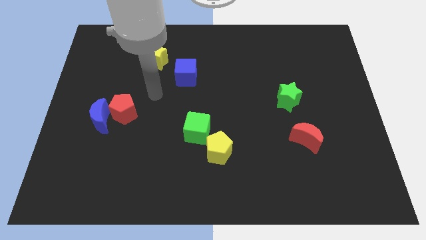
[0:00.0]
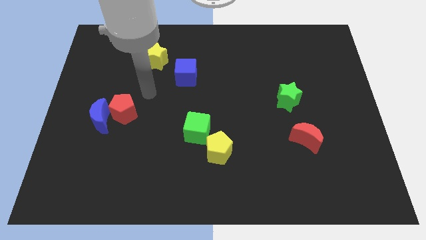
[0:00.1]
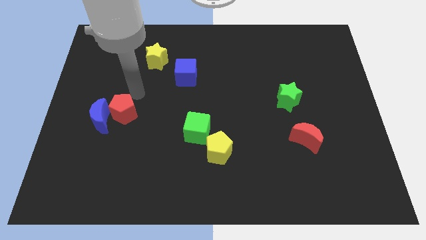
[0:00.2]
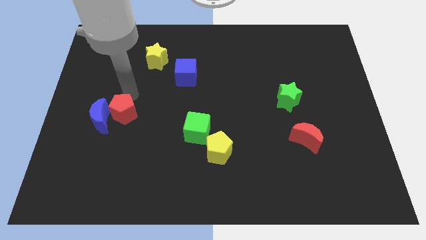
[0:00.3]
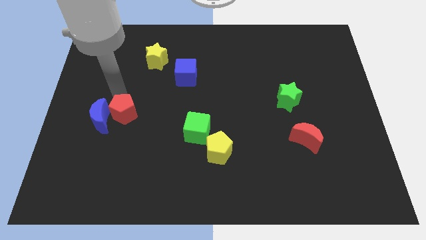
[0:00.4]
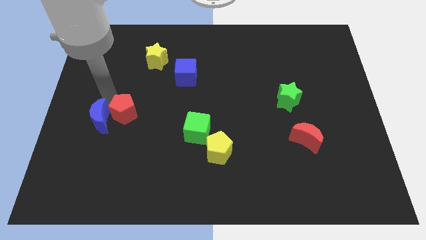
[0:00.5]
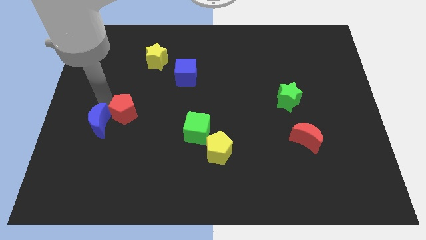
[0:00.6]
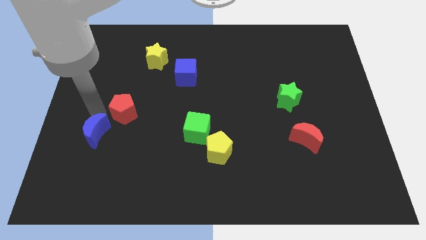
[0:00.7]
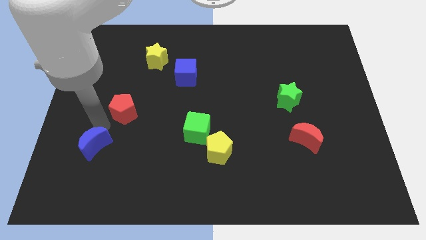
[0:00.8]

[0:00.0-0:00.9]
separate the red pentagon from the blue moon

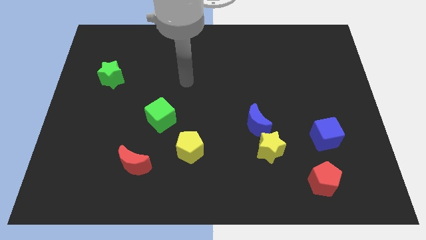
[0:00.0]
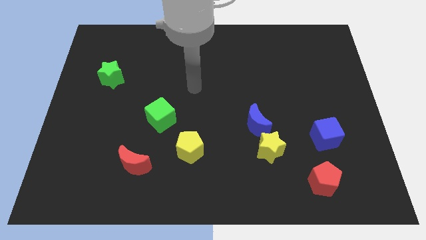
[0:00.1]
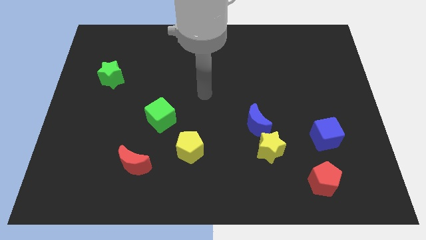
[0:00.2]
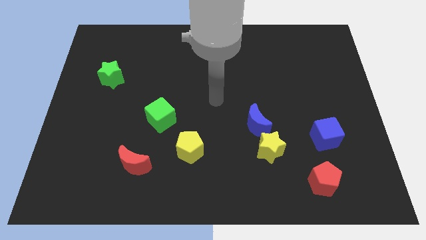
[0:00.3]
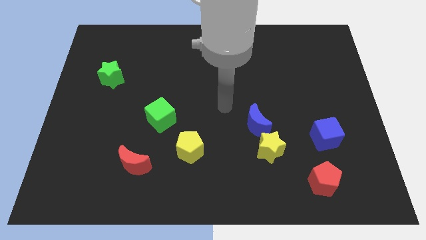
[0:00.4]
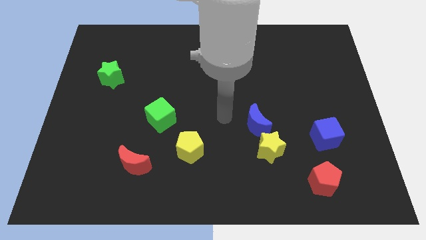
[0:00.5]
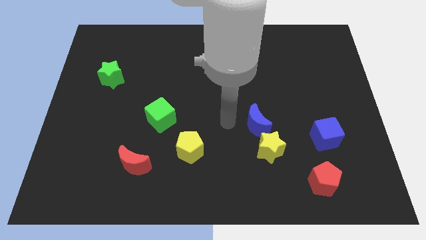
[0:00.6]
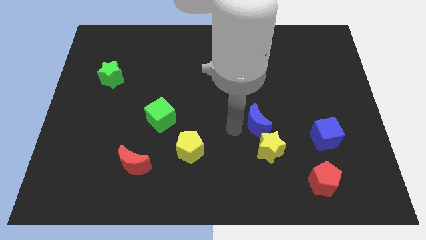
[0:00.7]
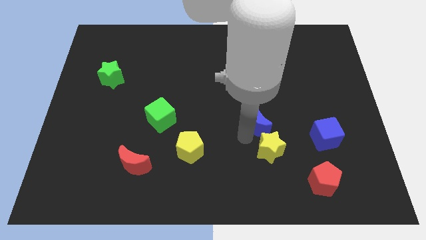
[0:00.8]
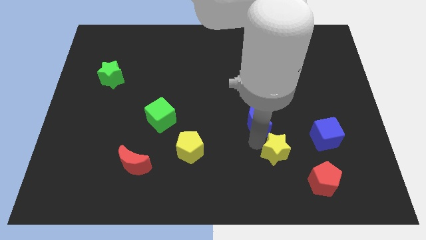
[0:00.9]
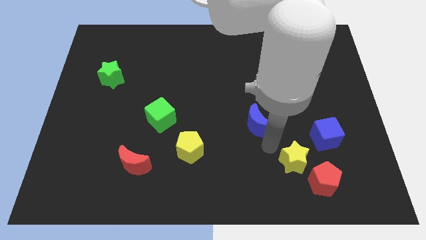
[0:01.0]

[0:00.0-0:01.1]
separate the blue moon from the yellow star

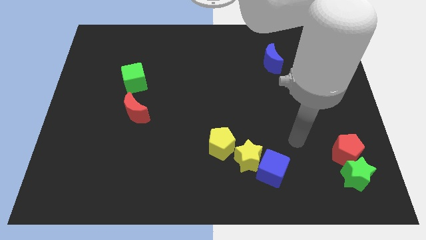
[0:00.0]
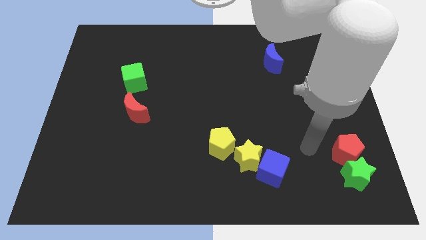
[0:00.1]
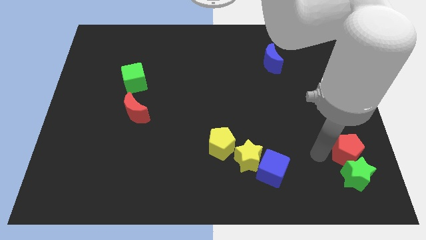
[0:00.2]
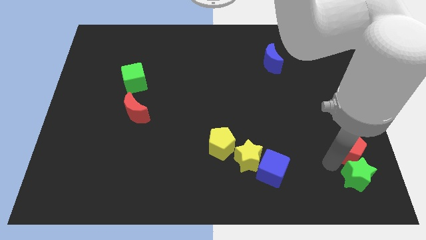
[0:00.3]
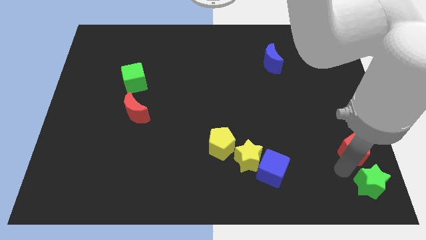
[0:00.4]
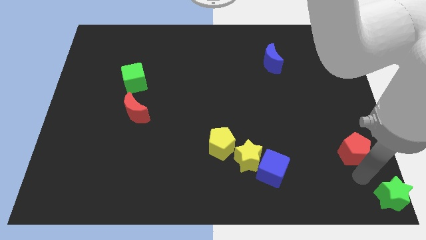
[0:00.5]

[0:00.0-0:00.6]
separate the red pentagon from the green star

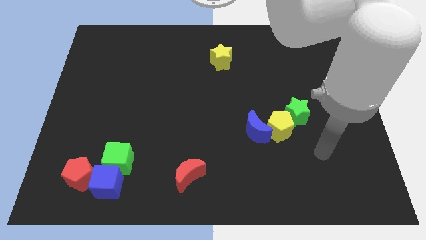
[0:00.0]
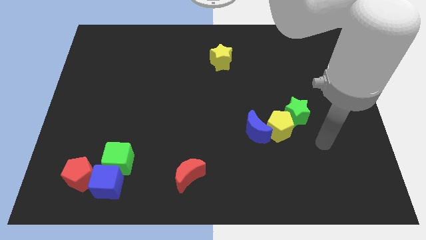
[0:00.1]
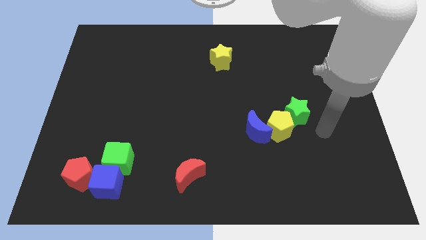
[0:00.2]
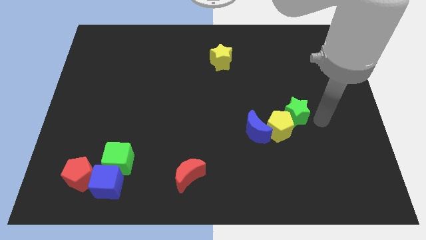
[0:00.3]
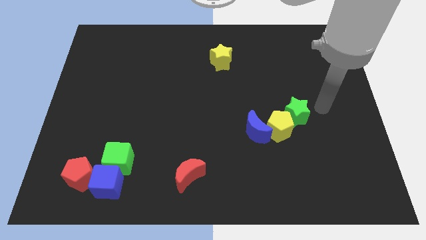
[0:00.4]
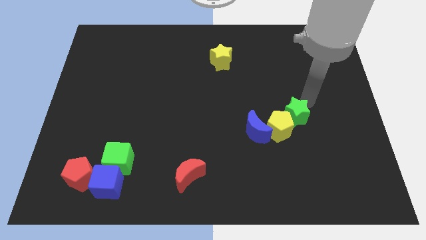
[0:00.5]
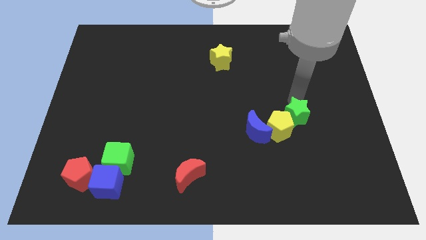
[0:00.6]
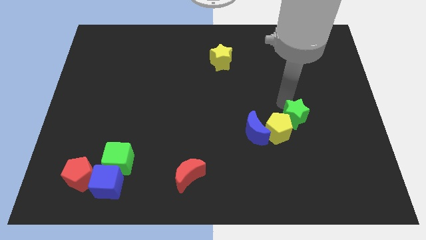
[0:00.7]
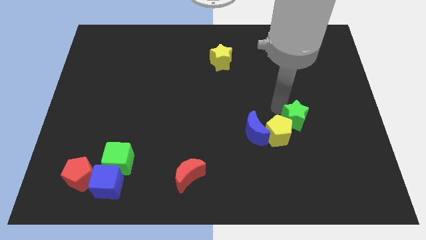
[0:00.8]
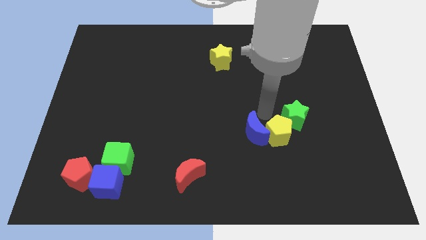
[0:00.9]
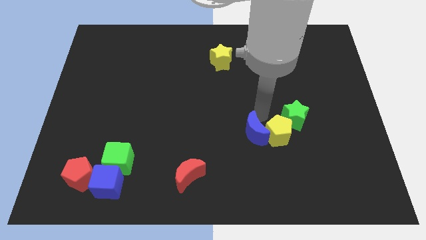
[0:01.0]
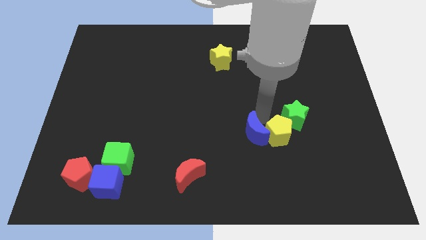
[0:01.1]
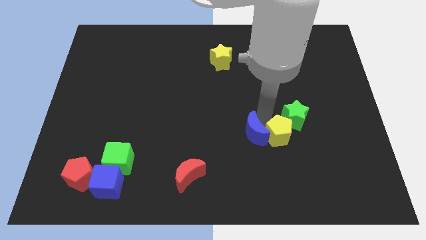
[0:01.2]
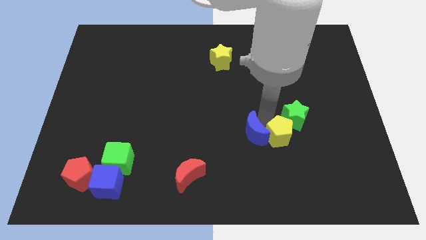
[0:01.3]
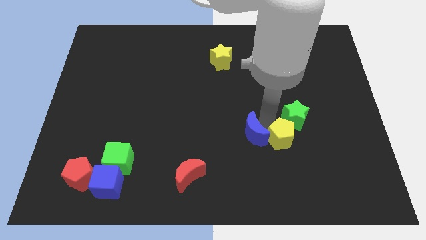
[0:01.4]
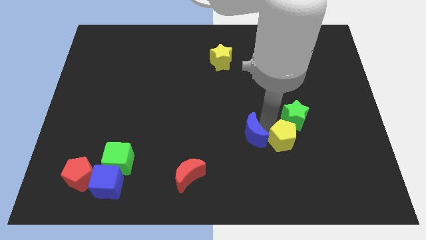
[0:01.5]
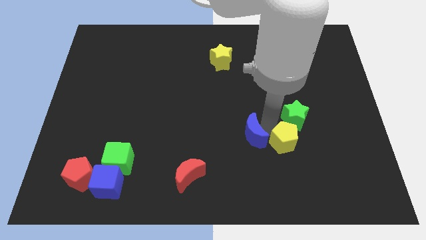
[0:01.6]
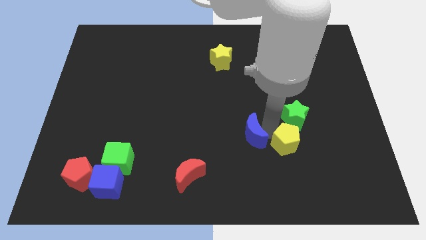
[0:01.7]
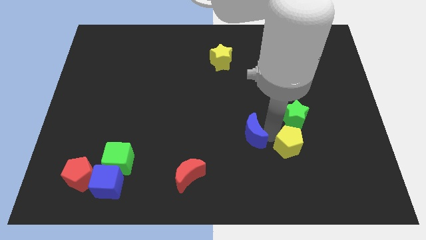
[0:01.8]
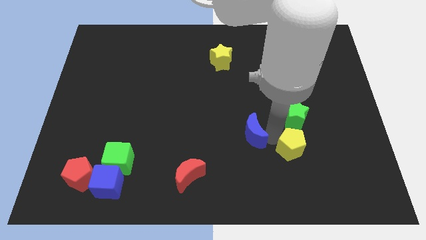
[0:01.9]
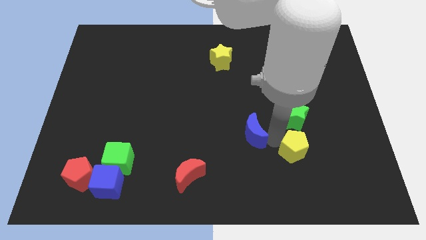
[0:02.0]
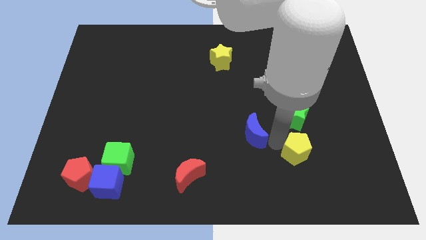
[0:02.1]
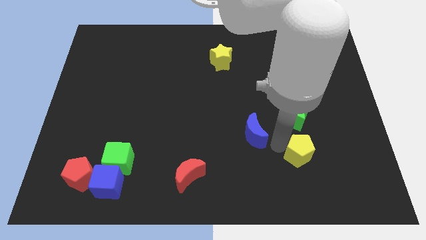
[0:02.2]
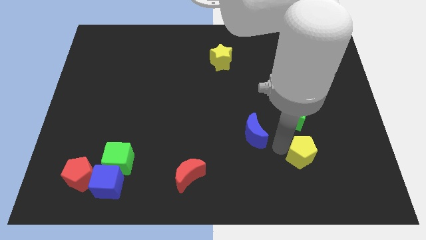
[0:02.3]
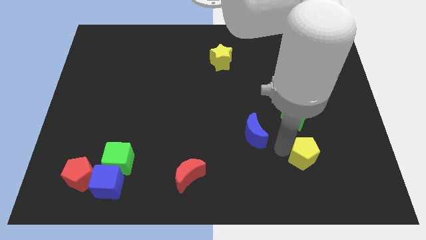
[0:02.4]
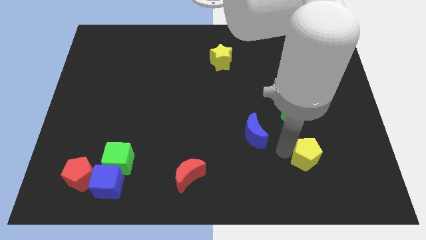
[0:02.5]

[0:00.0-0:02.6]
move the yellow pentagon away from the blue moon and green star

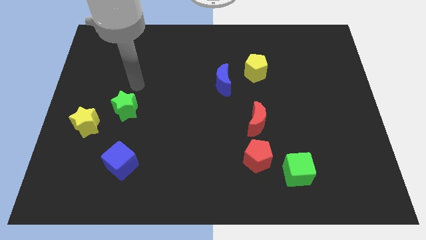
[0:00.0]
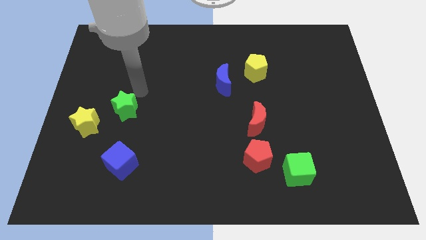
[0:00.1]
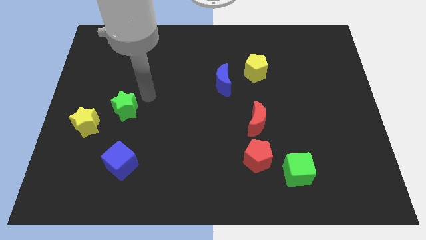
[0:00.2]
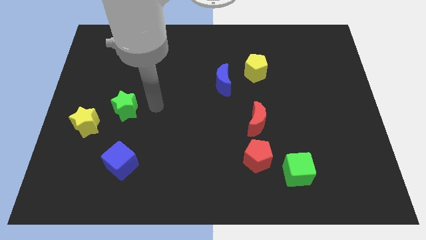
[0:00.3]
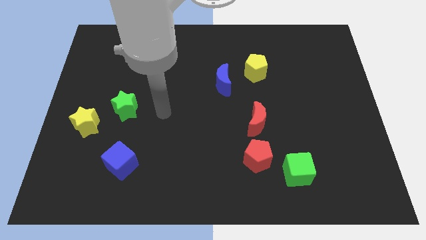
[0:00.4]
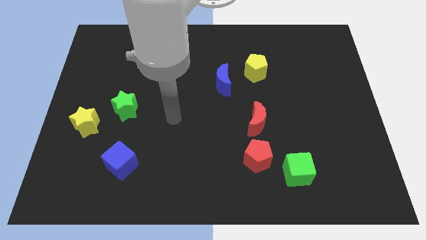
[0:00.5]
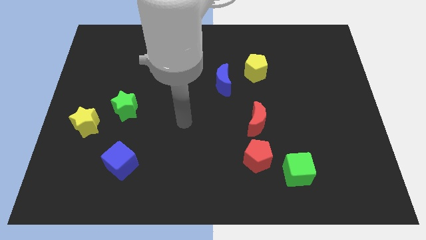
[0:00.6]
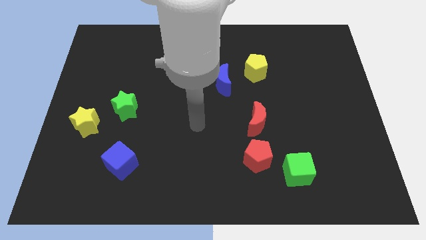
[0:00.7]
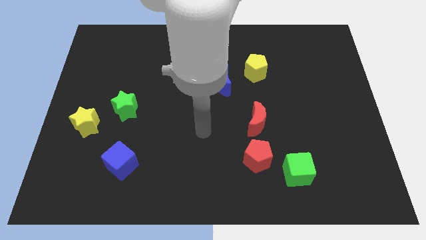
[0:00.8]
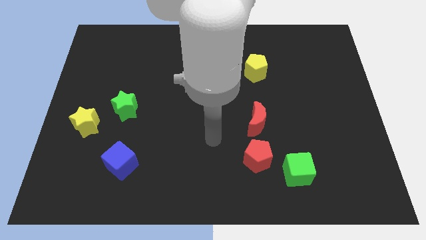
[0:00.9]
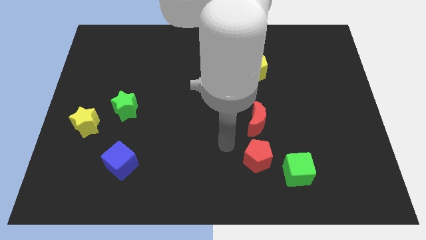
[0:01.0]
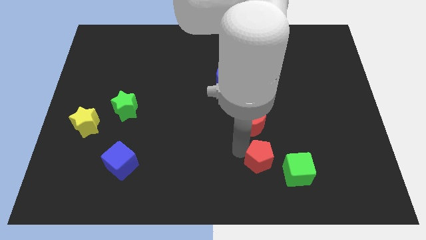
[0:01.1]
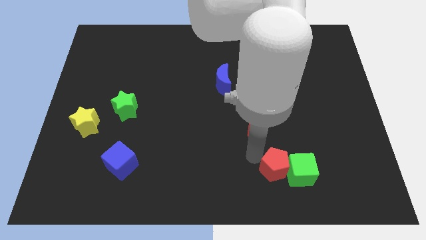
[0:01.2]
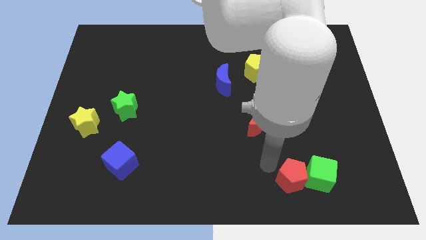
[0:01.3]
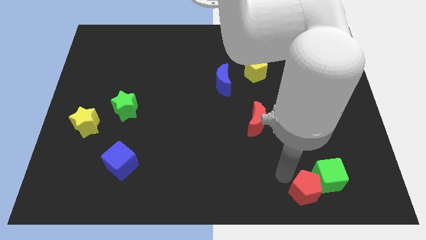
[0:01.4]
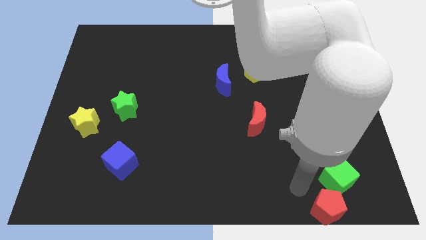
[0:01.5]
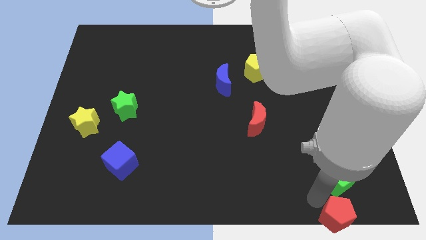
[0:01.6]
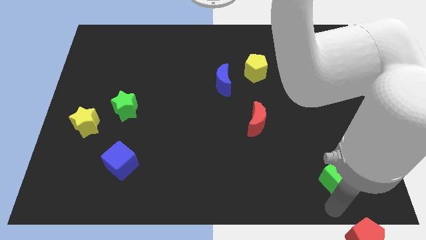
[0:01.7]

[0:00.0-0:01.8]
pull the green cube apart from the red pentagon

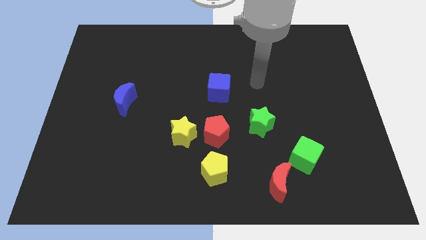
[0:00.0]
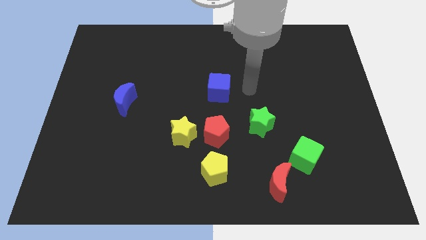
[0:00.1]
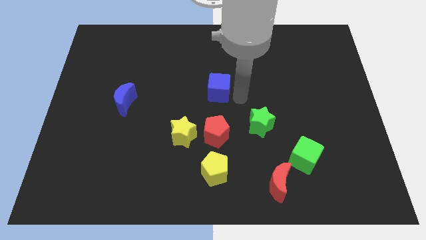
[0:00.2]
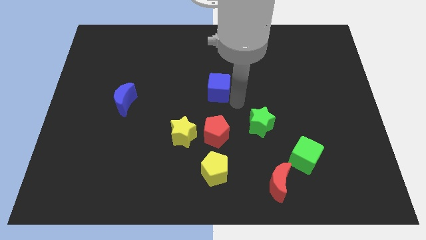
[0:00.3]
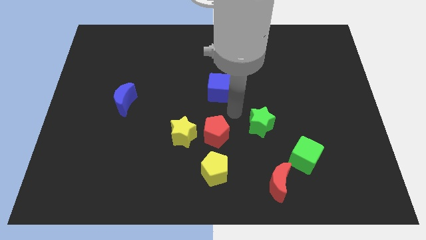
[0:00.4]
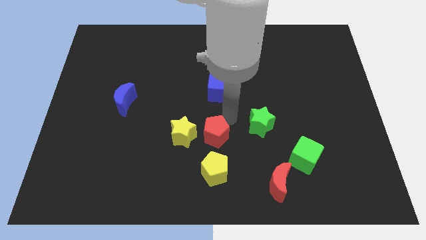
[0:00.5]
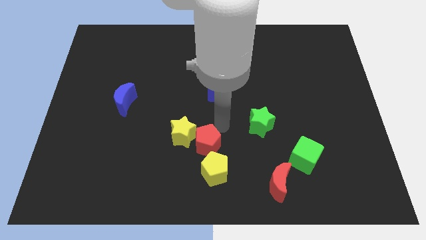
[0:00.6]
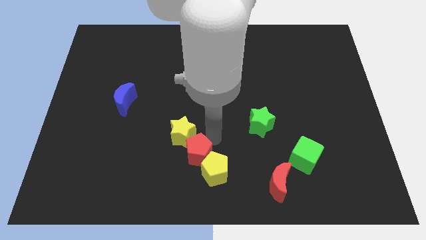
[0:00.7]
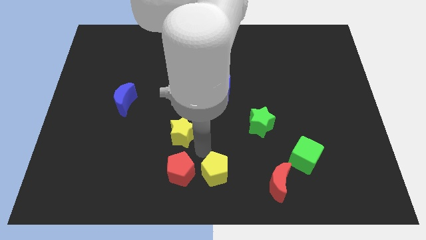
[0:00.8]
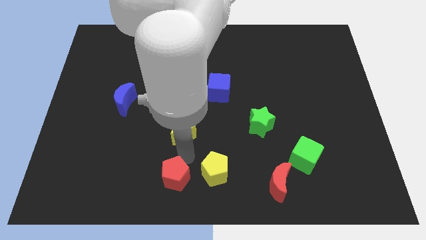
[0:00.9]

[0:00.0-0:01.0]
separate the yellow star from the red pentagon

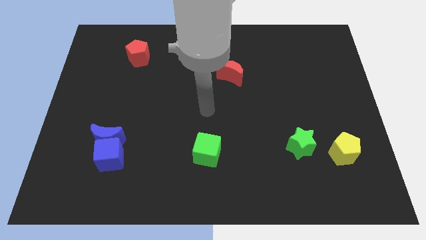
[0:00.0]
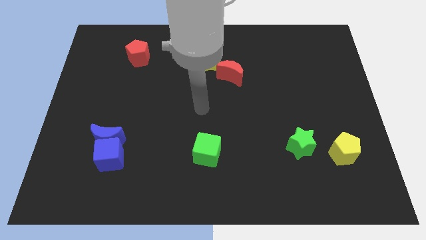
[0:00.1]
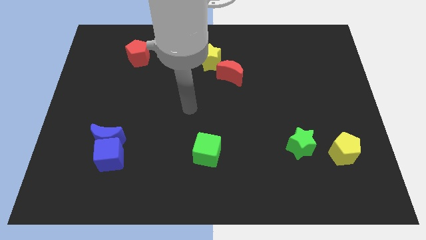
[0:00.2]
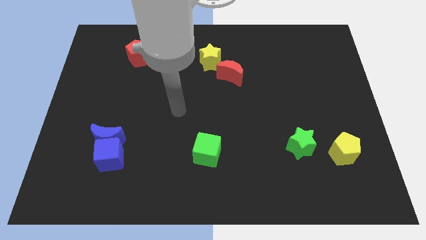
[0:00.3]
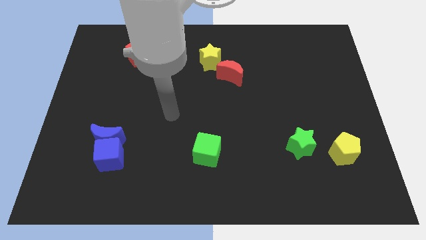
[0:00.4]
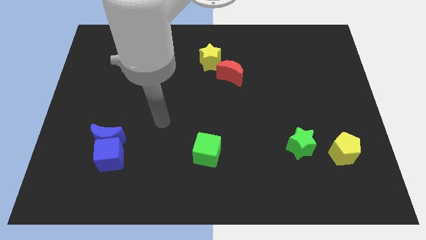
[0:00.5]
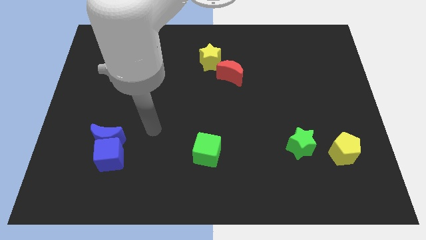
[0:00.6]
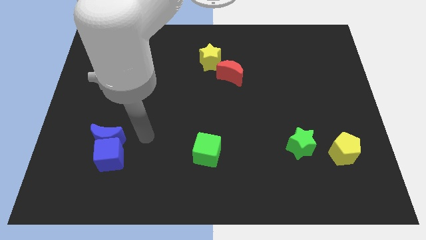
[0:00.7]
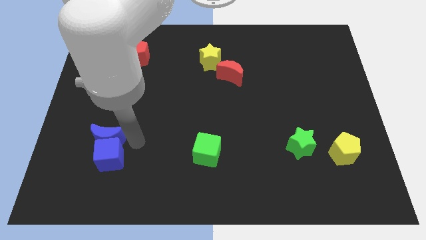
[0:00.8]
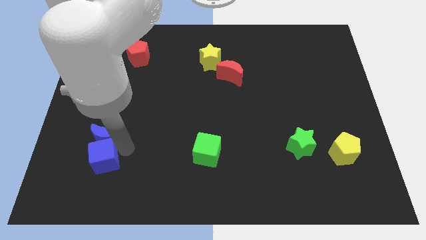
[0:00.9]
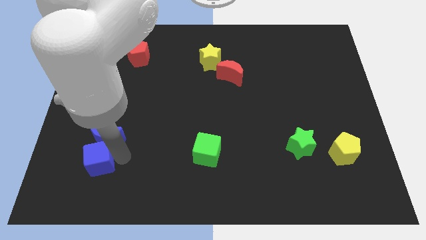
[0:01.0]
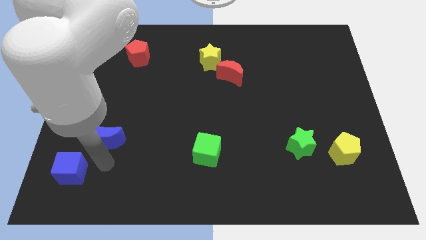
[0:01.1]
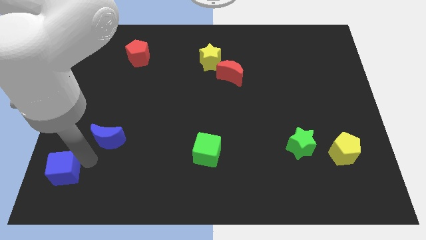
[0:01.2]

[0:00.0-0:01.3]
separate the blue moon from the blue cube
